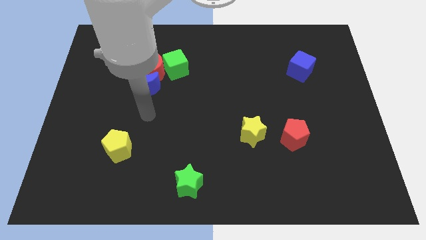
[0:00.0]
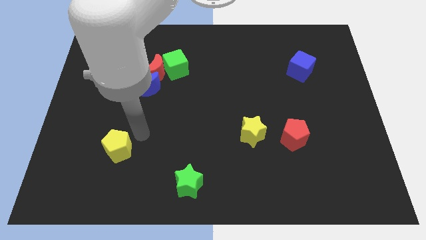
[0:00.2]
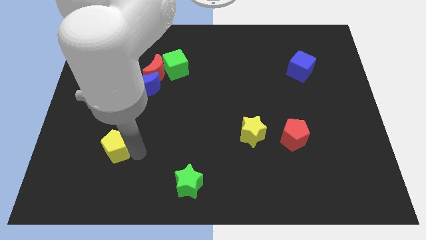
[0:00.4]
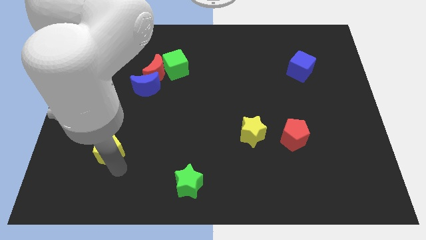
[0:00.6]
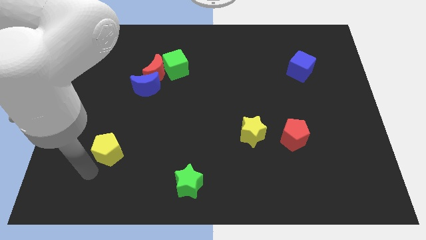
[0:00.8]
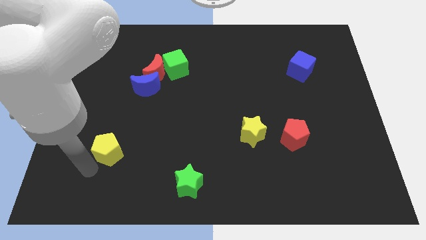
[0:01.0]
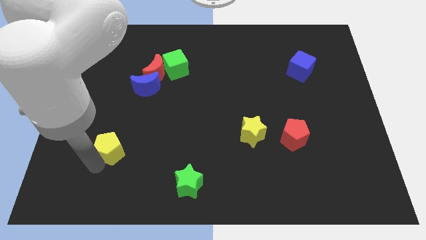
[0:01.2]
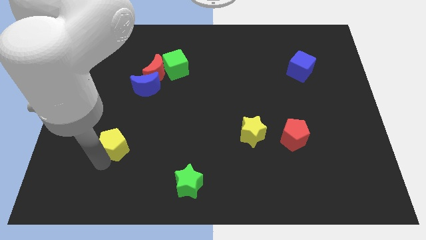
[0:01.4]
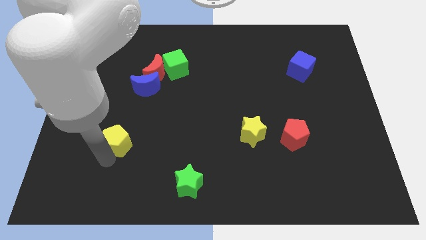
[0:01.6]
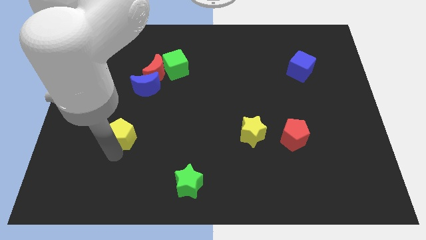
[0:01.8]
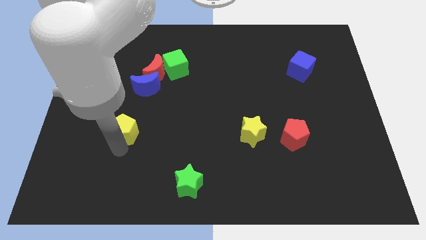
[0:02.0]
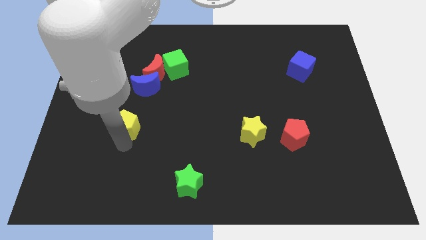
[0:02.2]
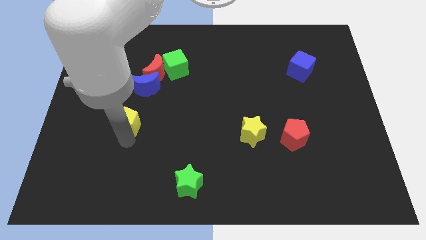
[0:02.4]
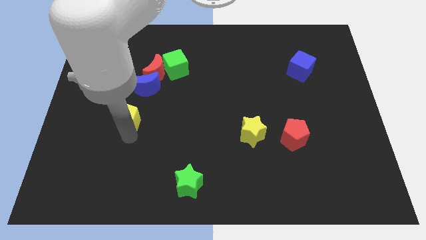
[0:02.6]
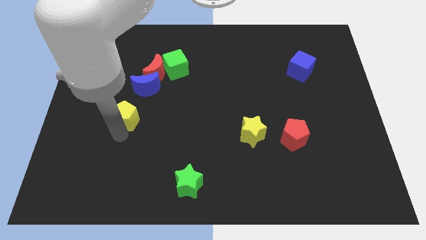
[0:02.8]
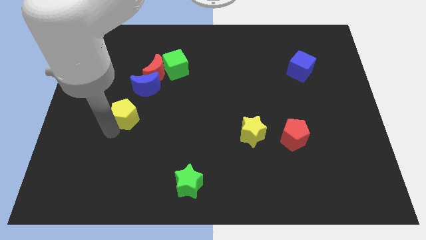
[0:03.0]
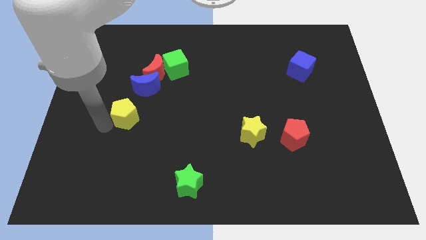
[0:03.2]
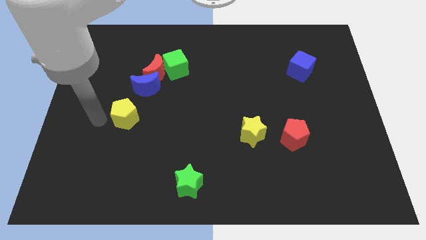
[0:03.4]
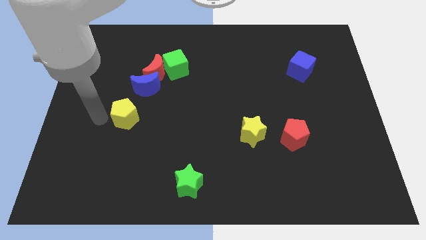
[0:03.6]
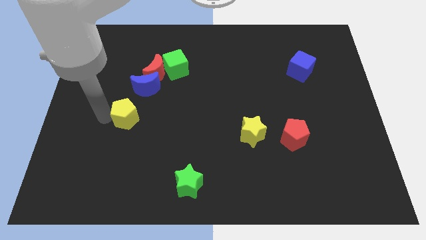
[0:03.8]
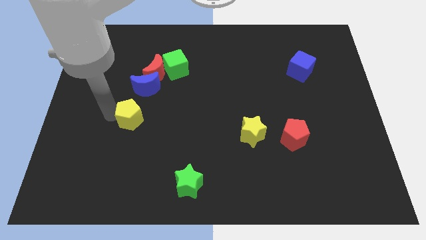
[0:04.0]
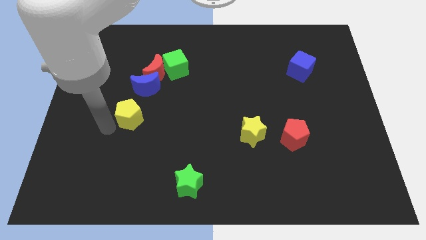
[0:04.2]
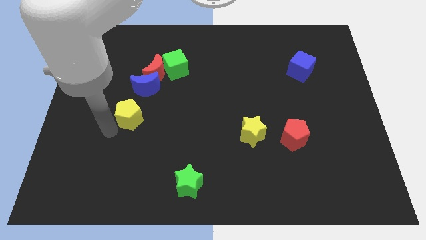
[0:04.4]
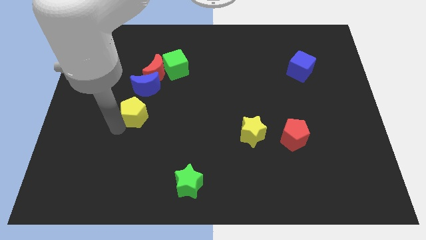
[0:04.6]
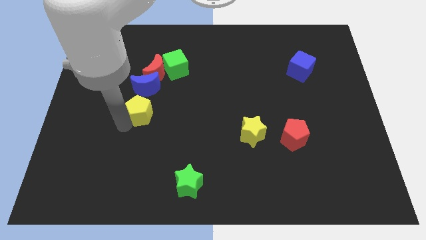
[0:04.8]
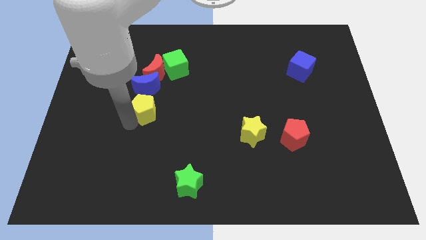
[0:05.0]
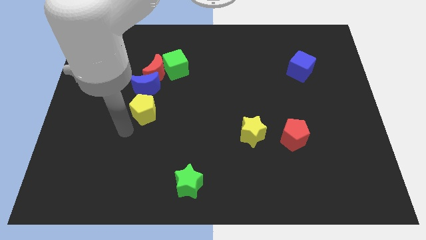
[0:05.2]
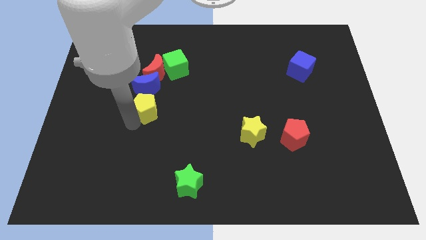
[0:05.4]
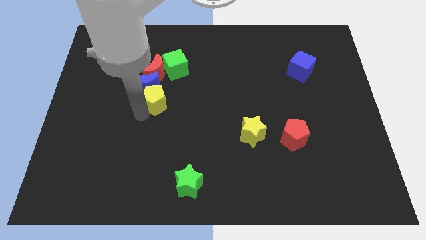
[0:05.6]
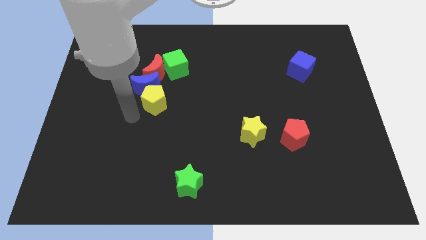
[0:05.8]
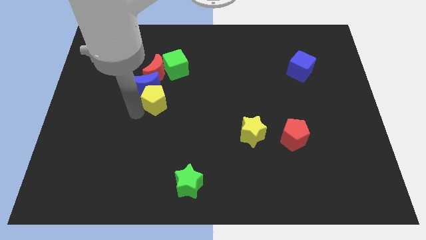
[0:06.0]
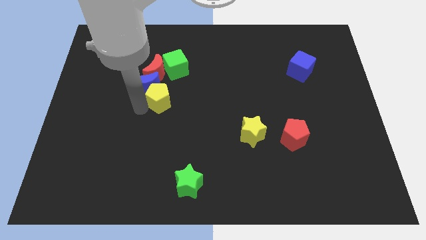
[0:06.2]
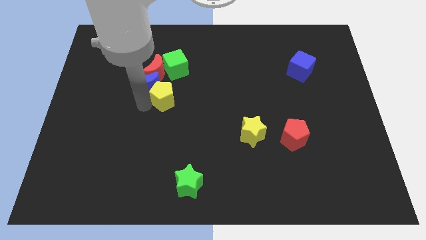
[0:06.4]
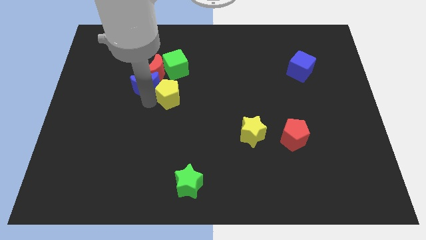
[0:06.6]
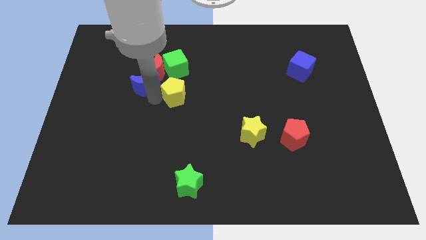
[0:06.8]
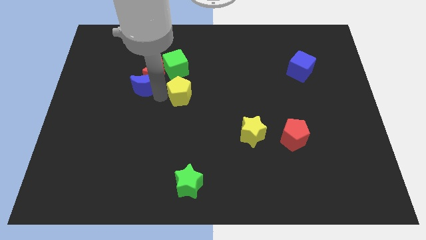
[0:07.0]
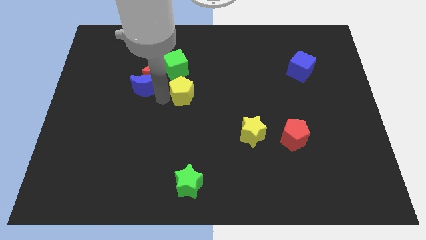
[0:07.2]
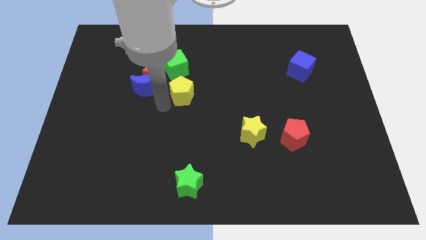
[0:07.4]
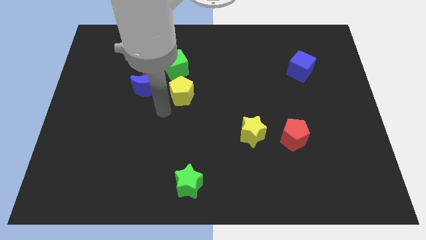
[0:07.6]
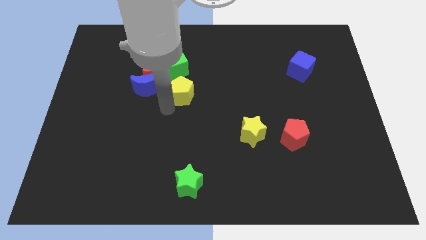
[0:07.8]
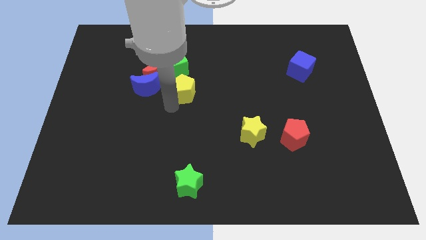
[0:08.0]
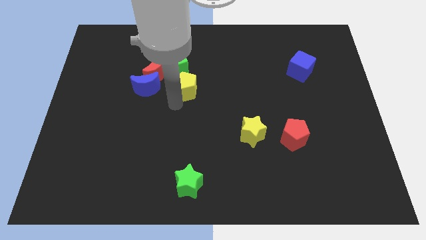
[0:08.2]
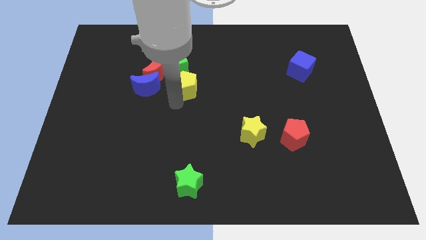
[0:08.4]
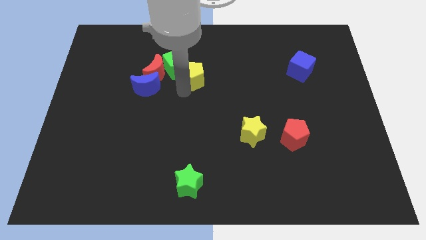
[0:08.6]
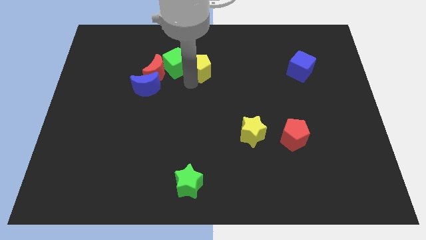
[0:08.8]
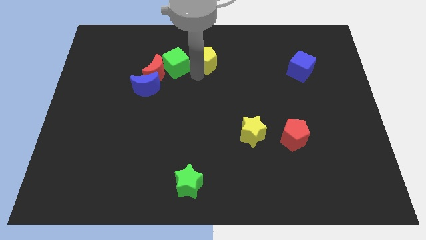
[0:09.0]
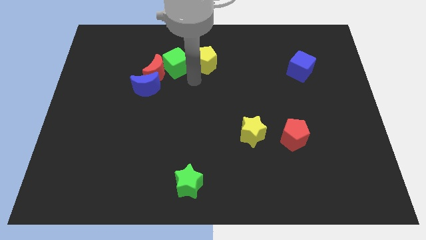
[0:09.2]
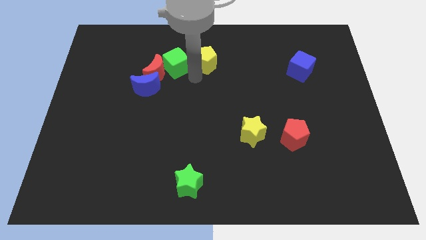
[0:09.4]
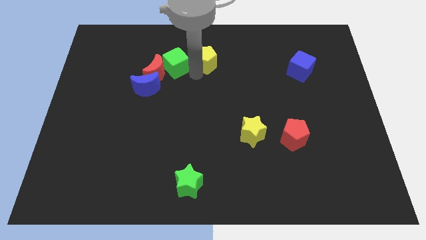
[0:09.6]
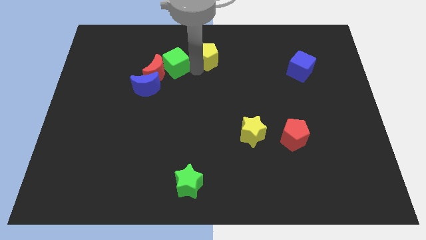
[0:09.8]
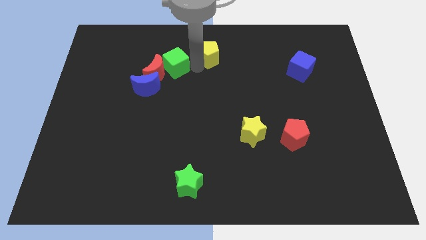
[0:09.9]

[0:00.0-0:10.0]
put the yellow pentagon to the top side
